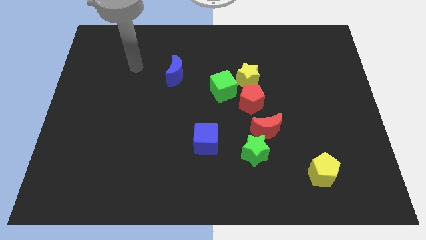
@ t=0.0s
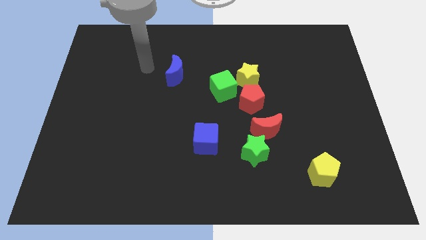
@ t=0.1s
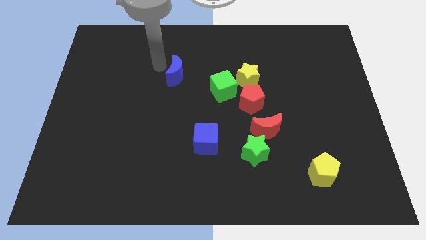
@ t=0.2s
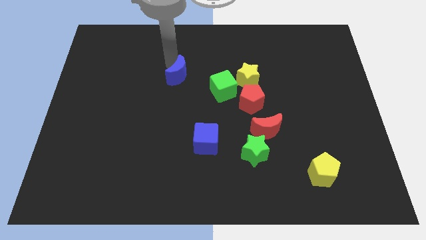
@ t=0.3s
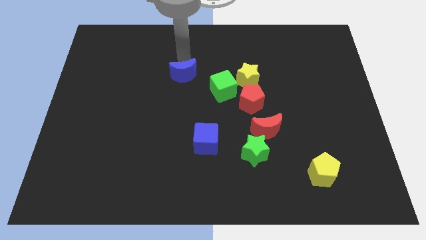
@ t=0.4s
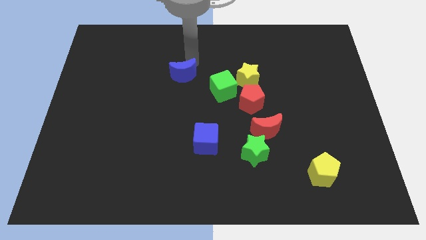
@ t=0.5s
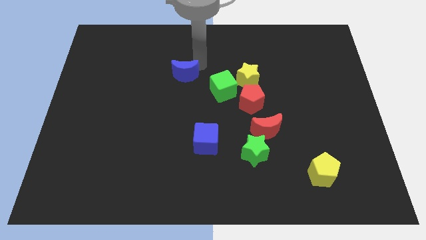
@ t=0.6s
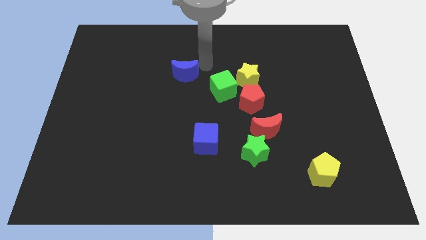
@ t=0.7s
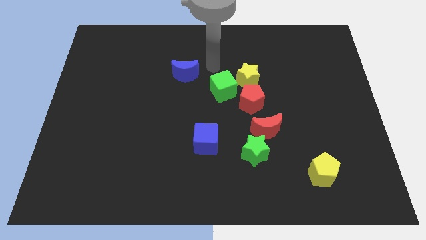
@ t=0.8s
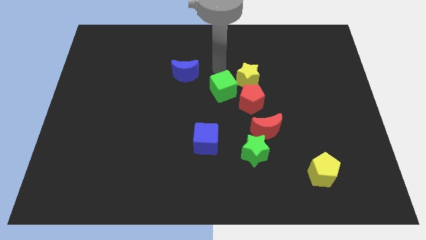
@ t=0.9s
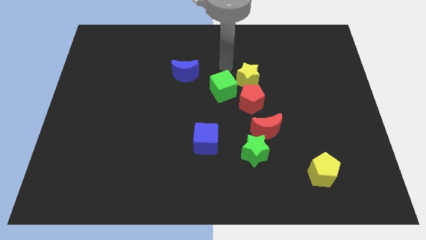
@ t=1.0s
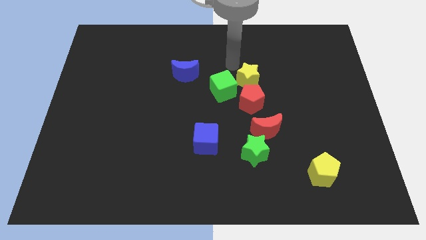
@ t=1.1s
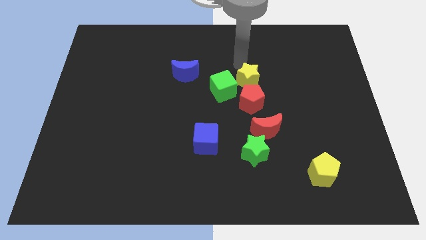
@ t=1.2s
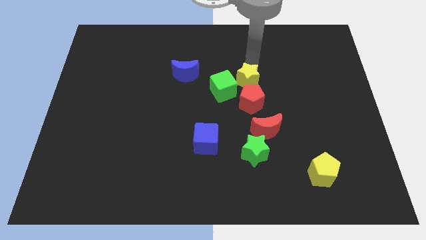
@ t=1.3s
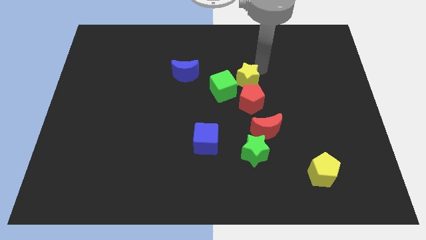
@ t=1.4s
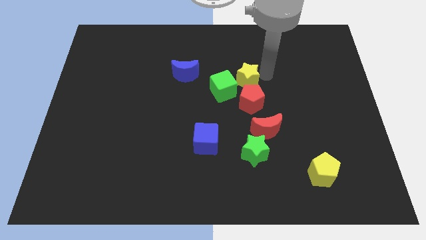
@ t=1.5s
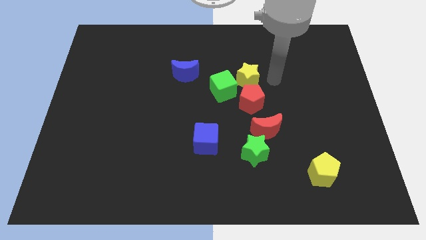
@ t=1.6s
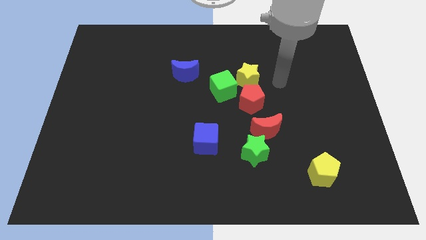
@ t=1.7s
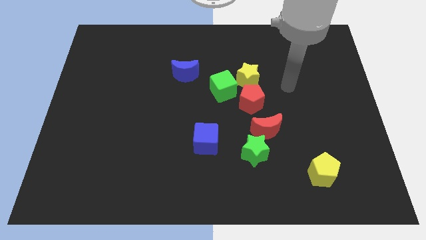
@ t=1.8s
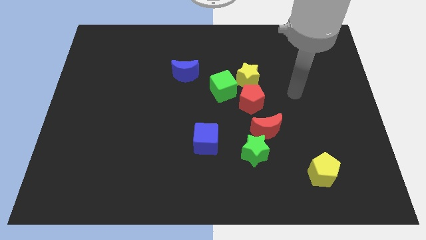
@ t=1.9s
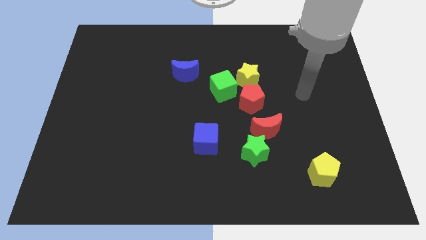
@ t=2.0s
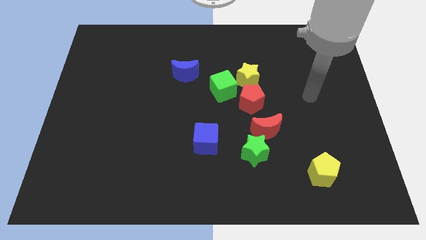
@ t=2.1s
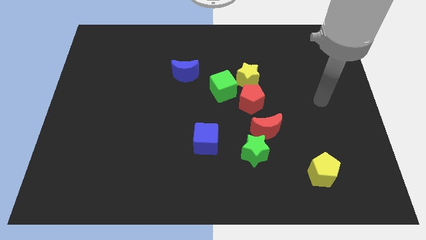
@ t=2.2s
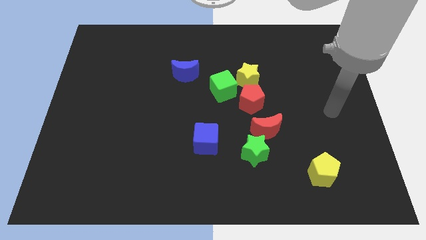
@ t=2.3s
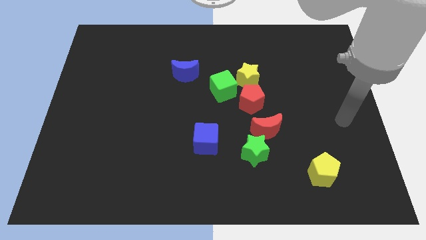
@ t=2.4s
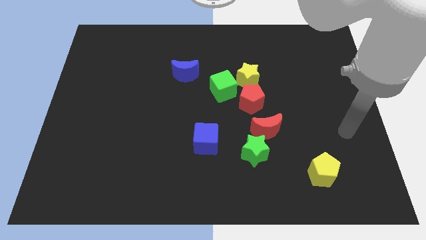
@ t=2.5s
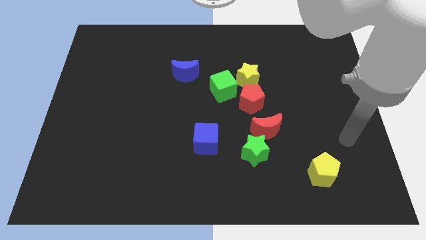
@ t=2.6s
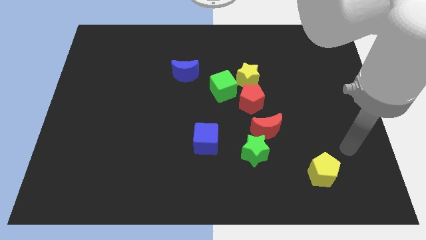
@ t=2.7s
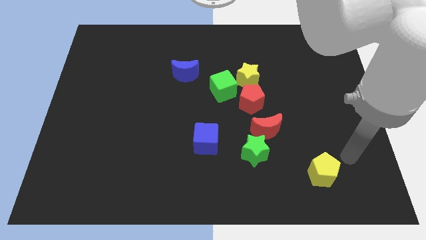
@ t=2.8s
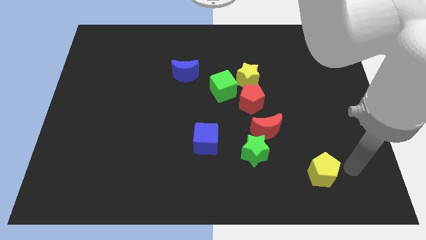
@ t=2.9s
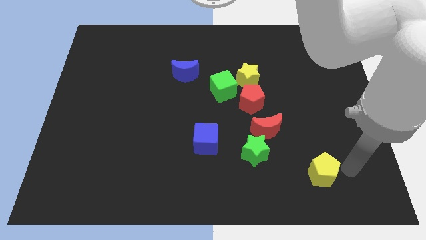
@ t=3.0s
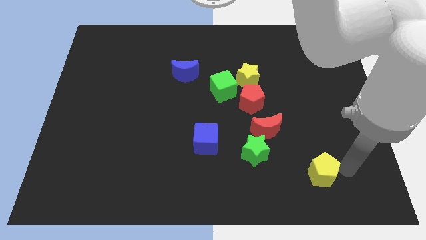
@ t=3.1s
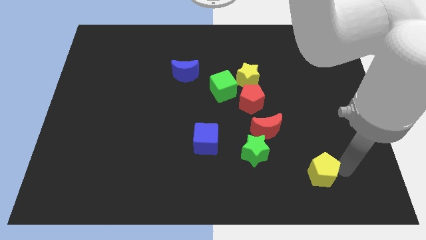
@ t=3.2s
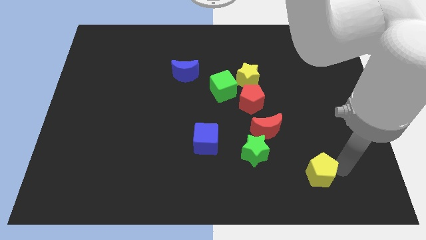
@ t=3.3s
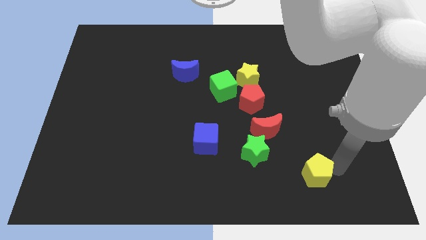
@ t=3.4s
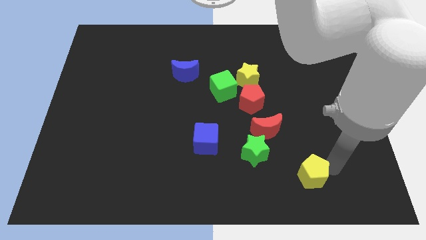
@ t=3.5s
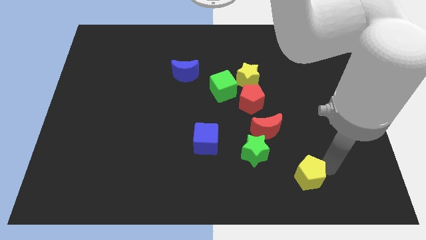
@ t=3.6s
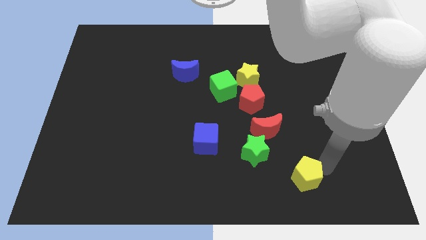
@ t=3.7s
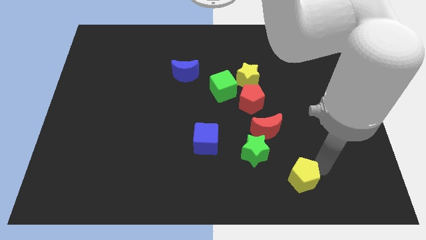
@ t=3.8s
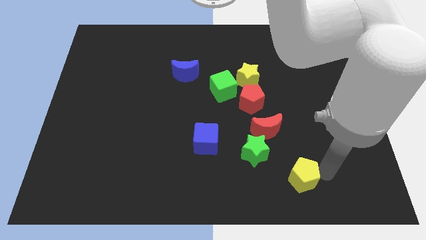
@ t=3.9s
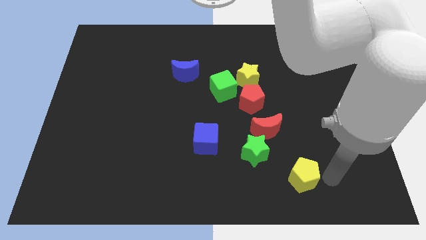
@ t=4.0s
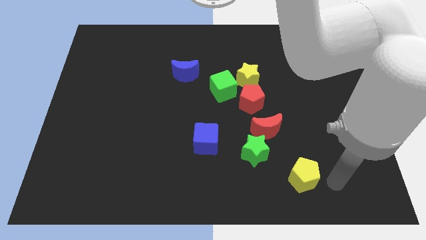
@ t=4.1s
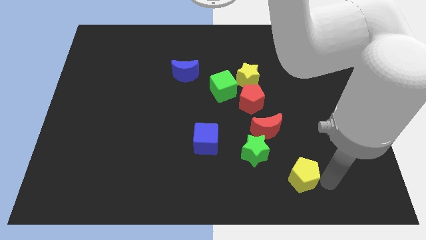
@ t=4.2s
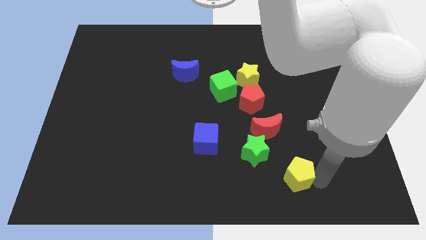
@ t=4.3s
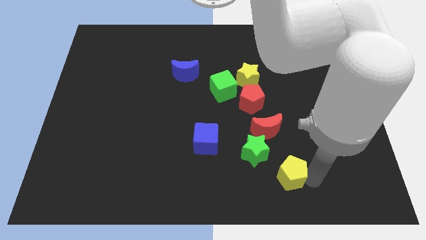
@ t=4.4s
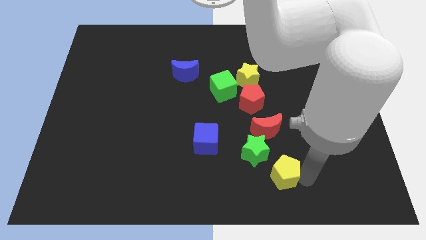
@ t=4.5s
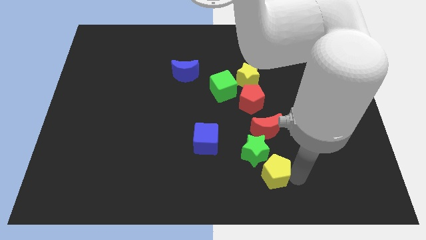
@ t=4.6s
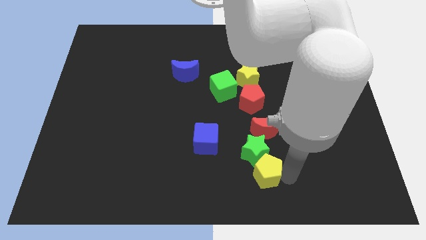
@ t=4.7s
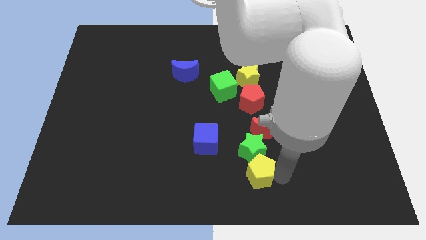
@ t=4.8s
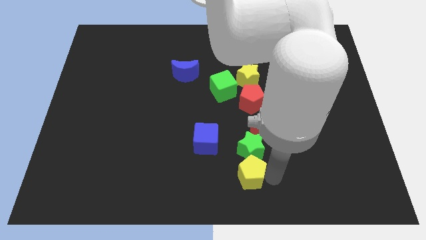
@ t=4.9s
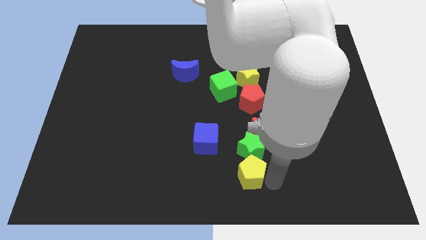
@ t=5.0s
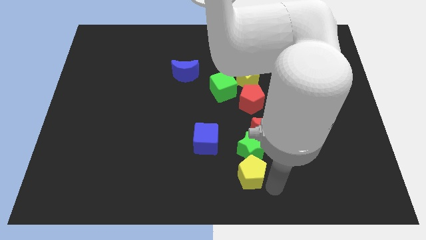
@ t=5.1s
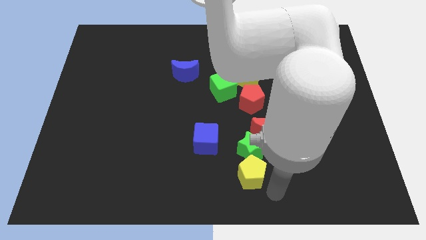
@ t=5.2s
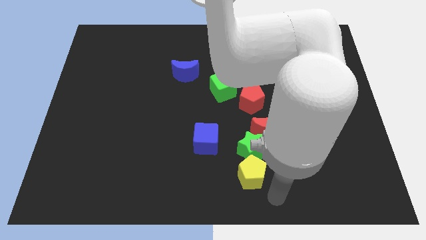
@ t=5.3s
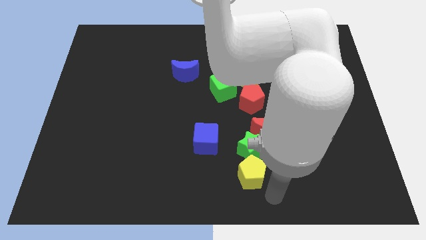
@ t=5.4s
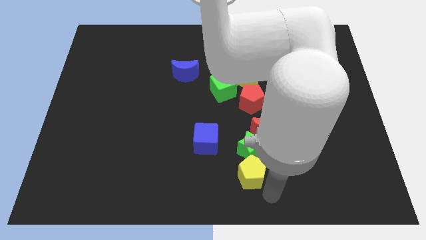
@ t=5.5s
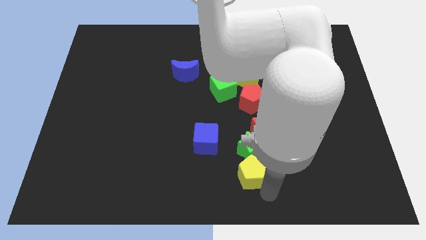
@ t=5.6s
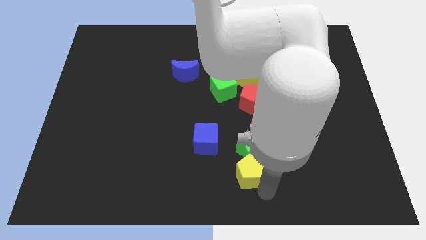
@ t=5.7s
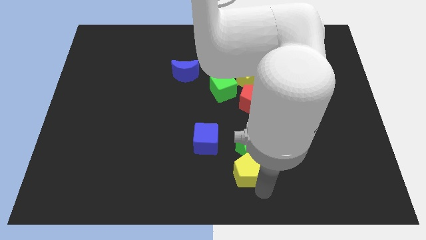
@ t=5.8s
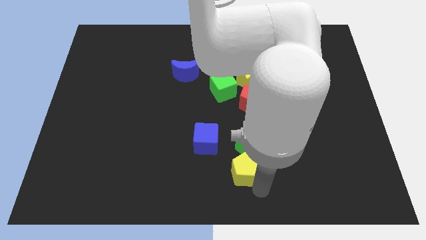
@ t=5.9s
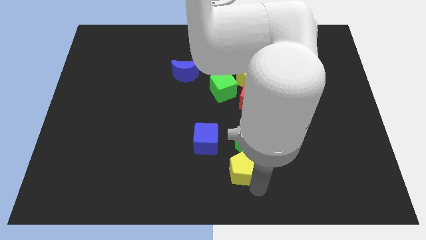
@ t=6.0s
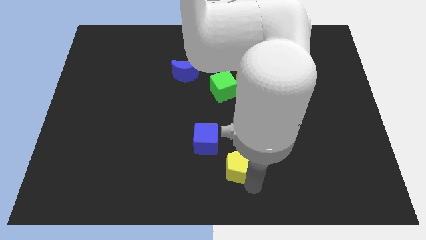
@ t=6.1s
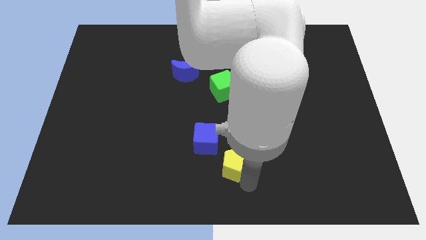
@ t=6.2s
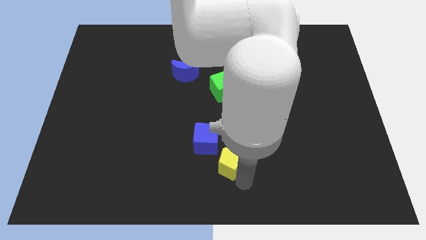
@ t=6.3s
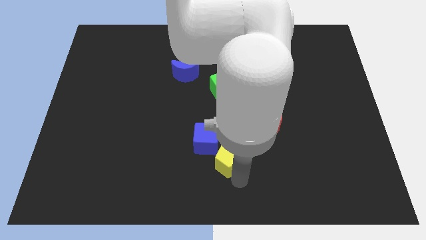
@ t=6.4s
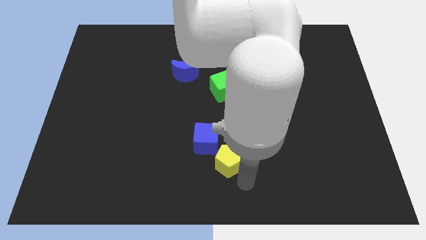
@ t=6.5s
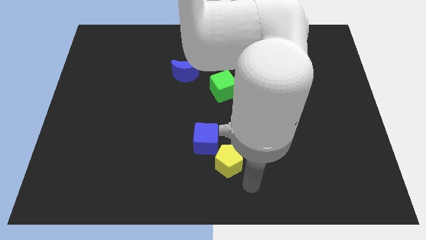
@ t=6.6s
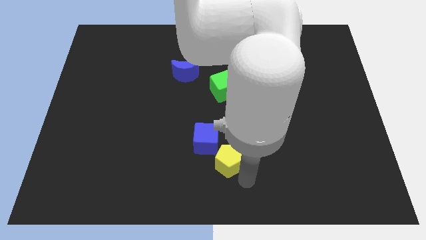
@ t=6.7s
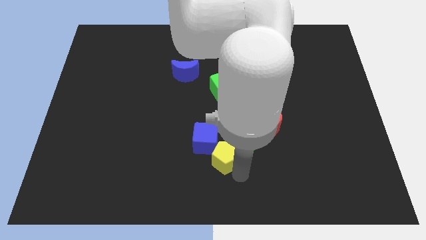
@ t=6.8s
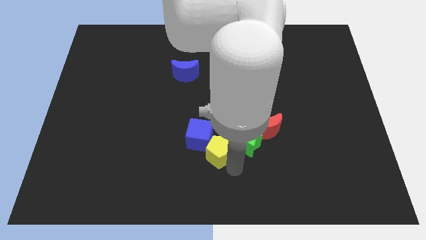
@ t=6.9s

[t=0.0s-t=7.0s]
put the yellow pentagon towards the blue cube
